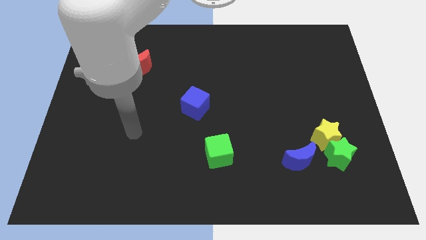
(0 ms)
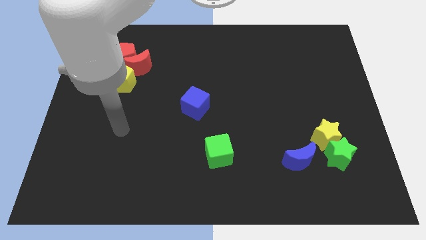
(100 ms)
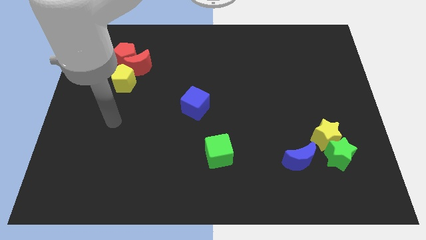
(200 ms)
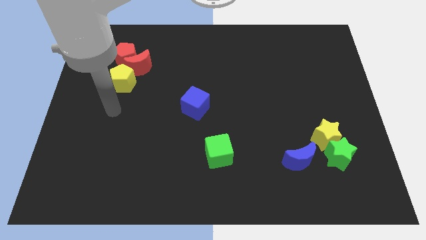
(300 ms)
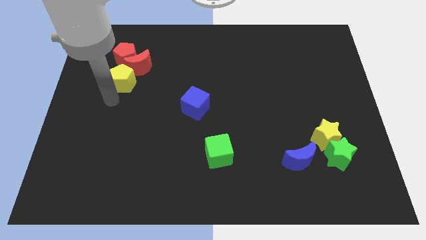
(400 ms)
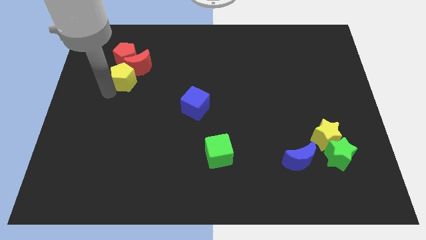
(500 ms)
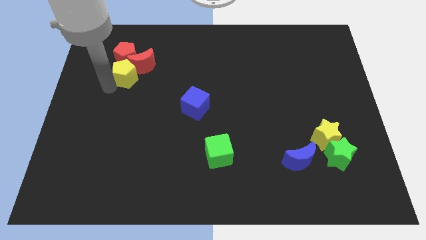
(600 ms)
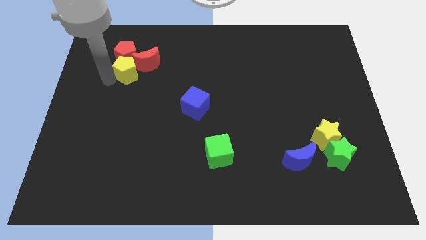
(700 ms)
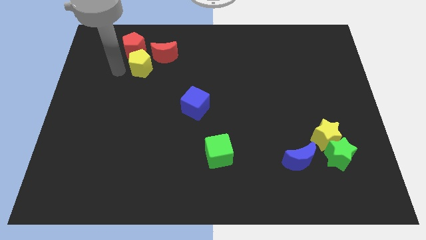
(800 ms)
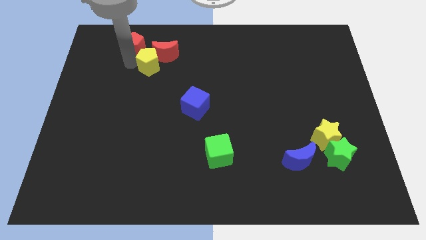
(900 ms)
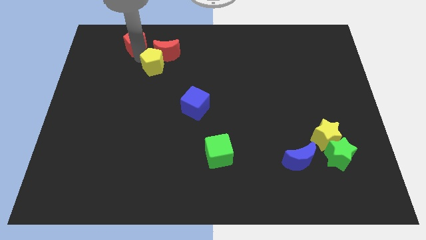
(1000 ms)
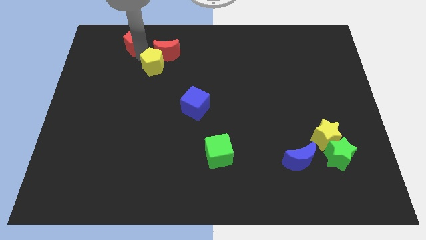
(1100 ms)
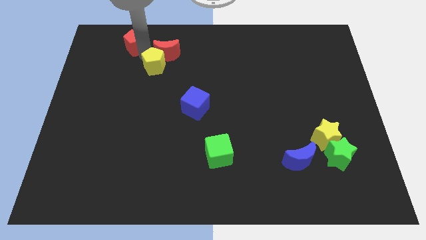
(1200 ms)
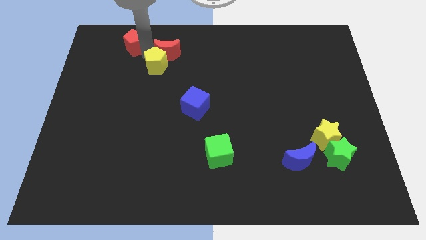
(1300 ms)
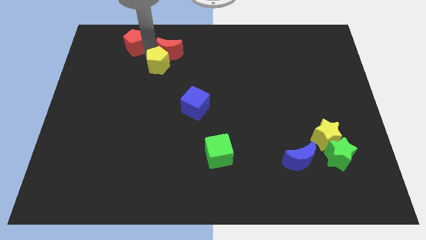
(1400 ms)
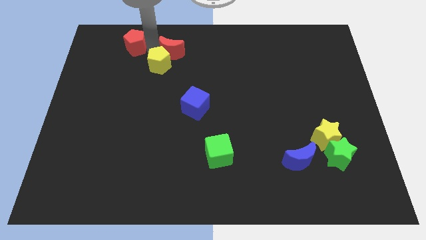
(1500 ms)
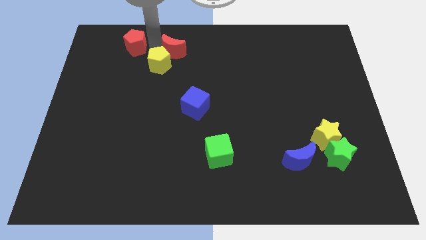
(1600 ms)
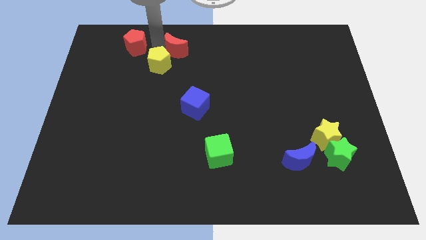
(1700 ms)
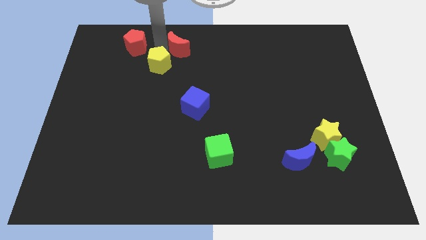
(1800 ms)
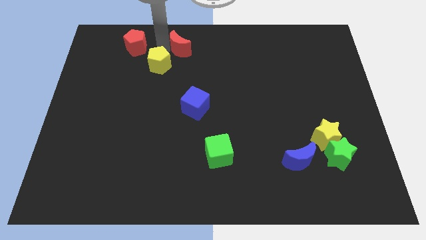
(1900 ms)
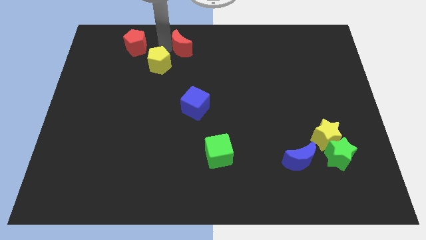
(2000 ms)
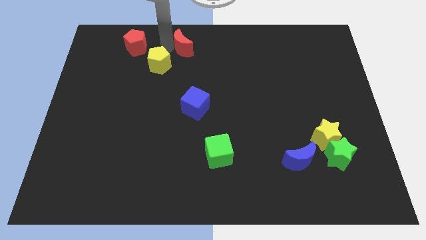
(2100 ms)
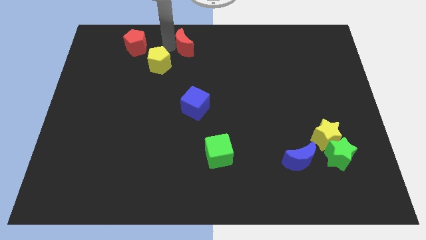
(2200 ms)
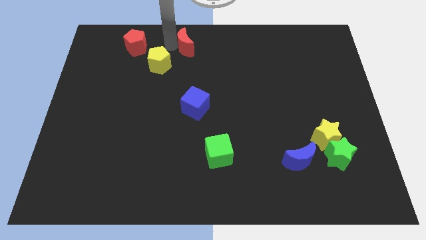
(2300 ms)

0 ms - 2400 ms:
pull the red moon apart from the red pentagon and yellow pentagon

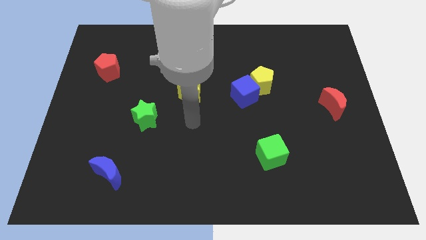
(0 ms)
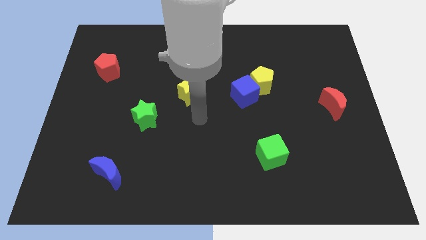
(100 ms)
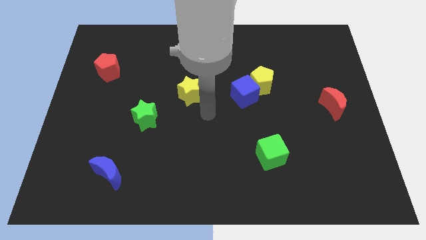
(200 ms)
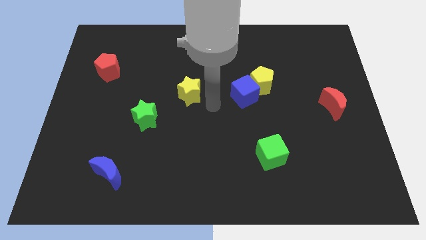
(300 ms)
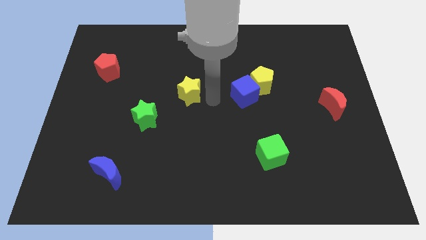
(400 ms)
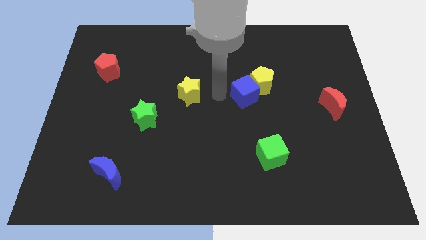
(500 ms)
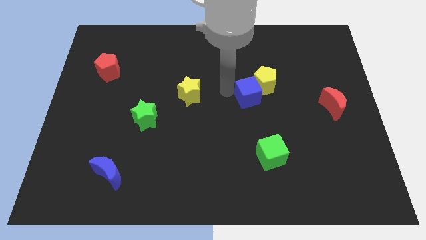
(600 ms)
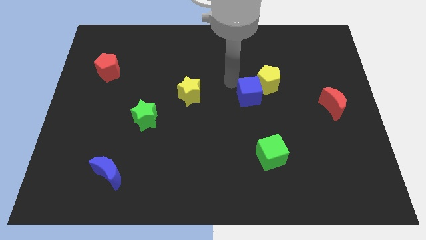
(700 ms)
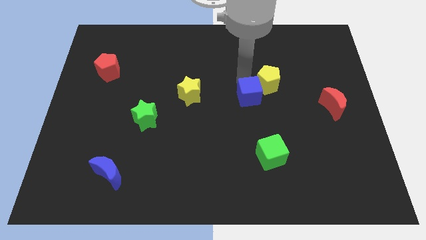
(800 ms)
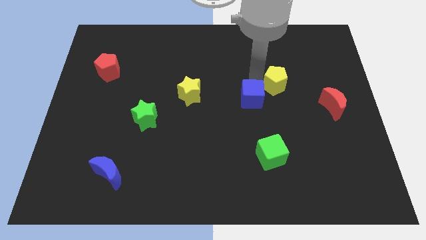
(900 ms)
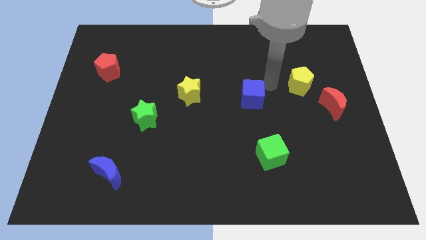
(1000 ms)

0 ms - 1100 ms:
pull the blue cube apart from the yellow pentagon

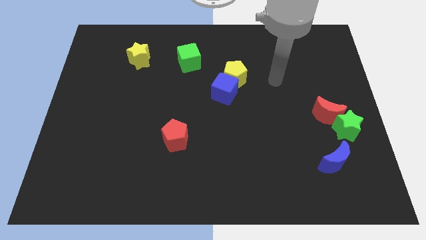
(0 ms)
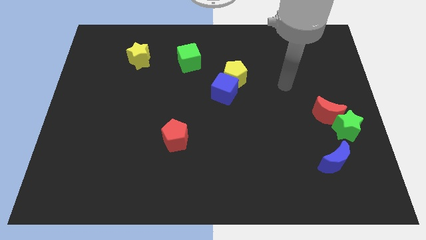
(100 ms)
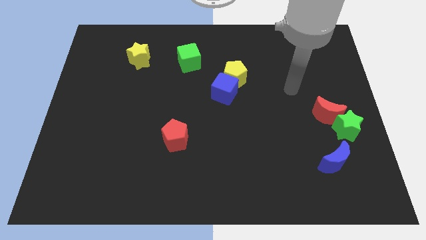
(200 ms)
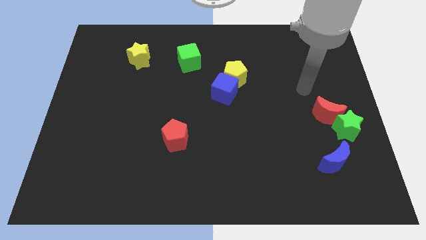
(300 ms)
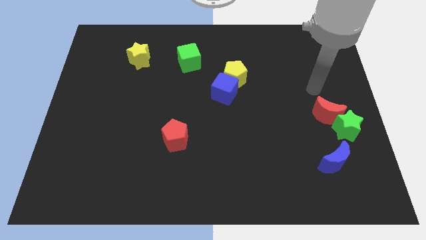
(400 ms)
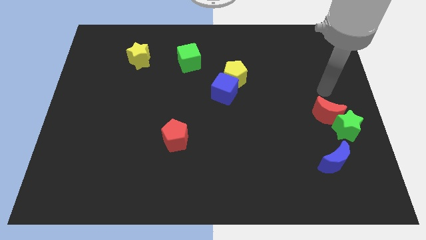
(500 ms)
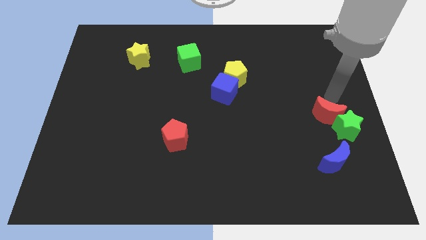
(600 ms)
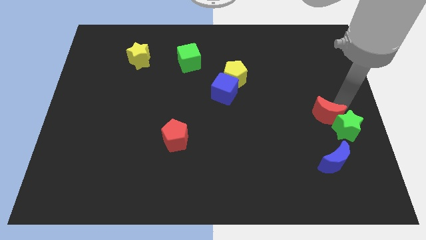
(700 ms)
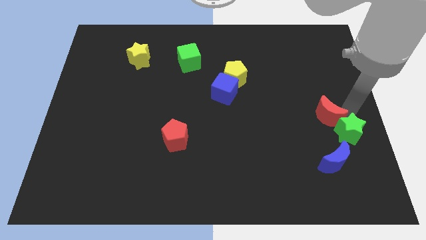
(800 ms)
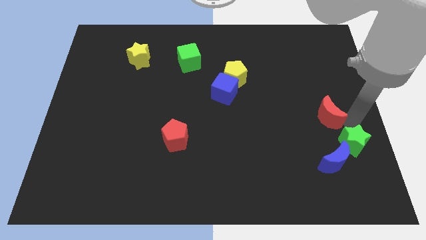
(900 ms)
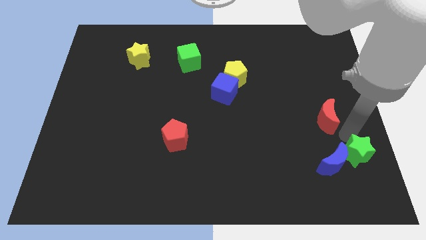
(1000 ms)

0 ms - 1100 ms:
move the red moon away from the green star

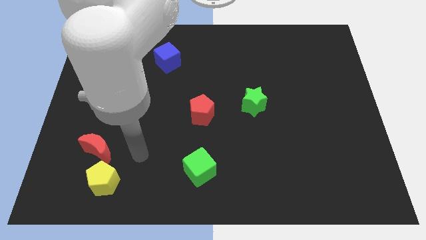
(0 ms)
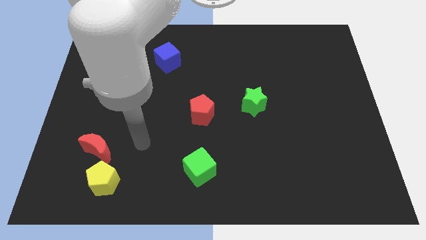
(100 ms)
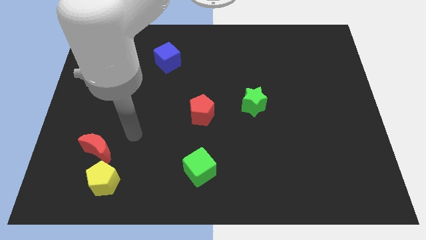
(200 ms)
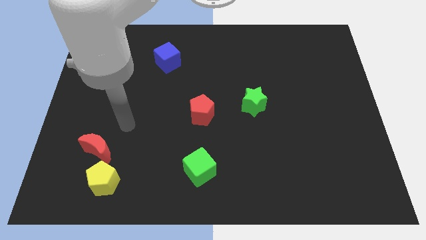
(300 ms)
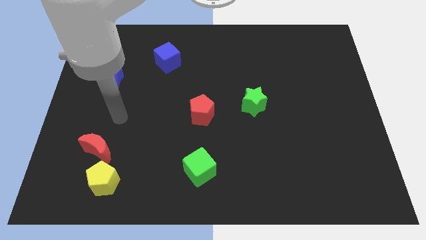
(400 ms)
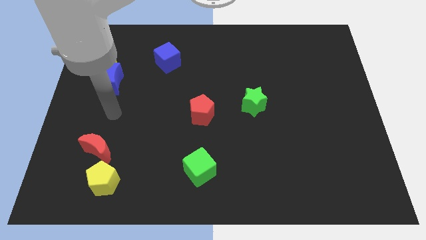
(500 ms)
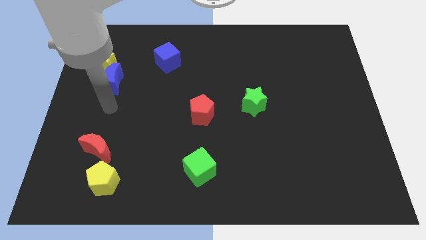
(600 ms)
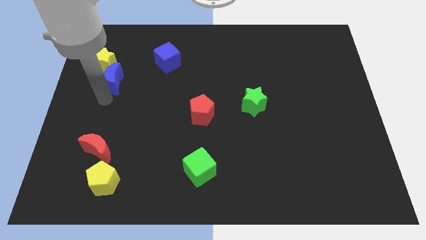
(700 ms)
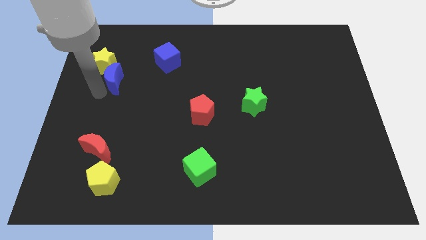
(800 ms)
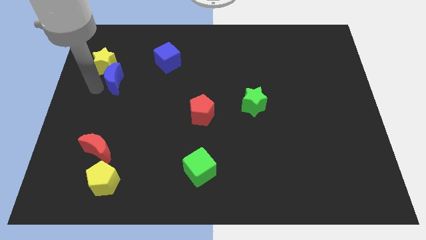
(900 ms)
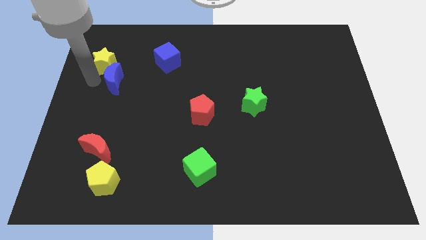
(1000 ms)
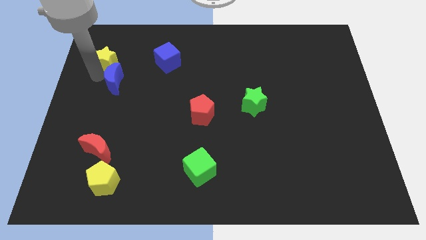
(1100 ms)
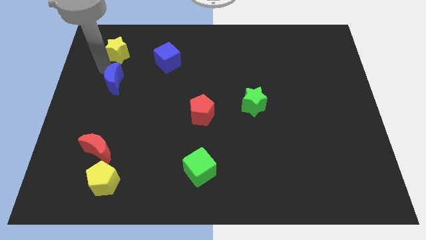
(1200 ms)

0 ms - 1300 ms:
pull the blue moon apart from the yellow star

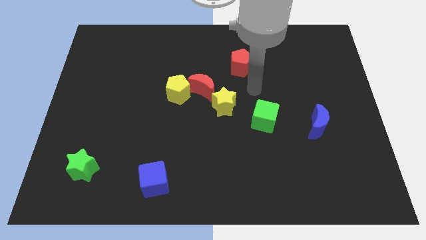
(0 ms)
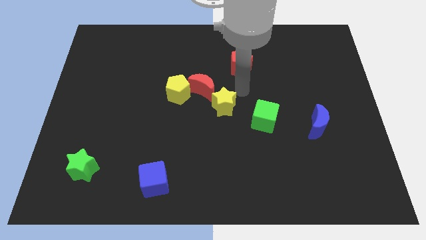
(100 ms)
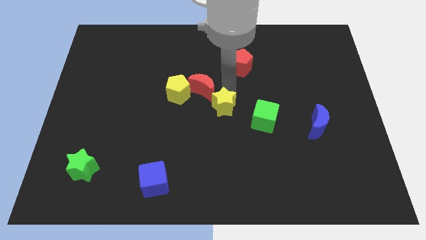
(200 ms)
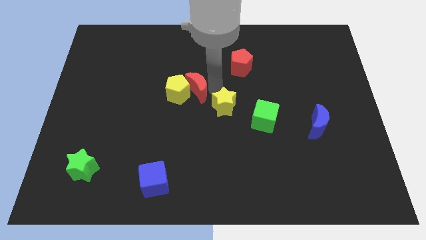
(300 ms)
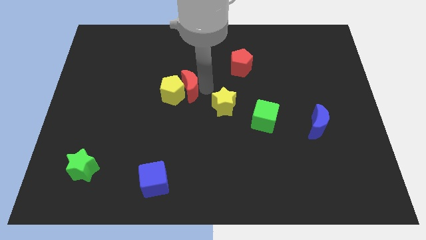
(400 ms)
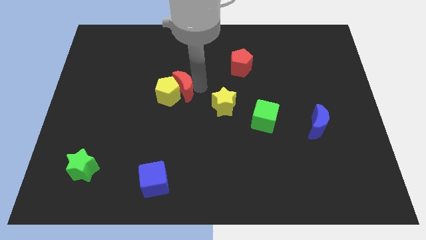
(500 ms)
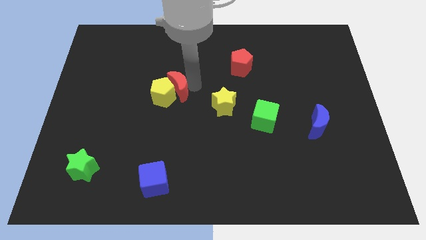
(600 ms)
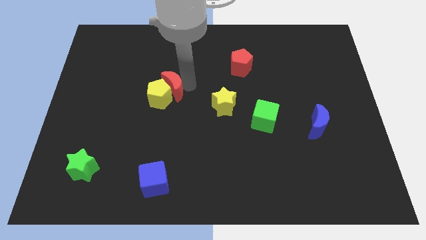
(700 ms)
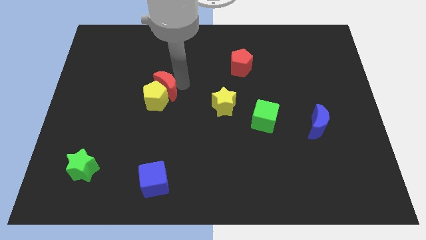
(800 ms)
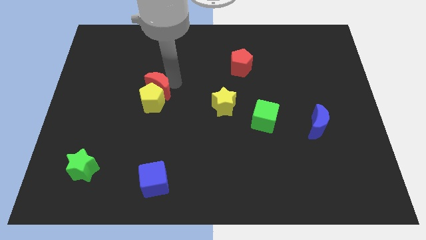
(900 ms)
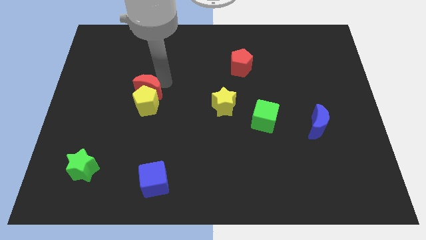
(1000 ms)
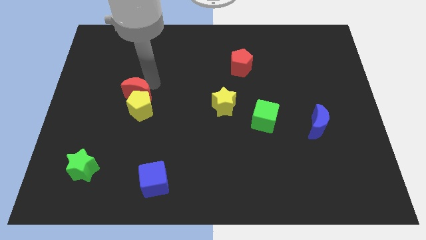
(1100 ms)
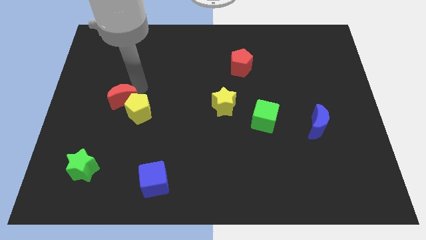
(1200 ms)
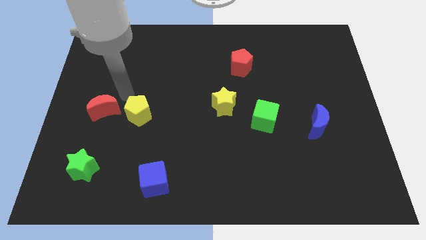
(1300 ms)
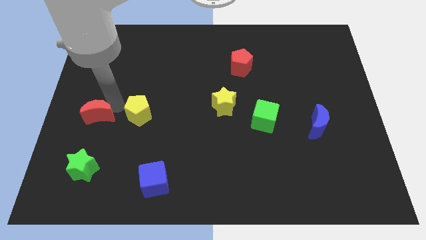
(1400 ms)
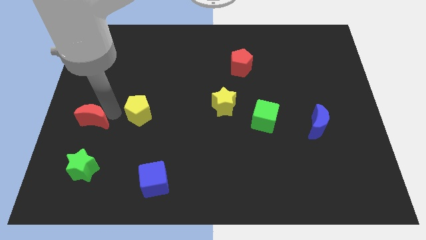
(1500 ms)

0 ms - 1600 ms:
move the yellow pentagon away from the red moon

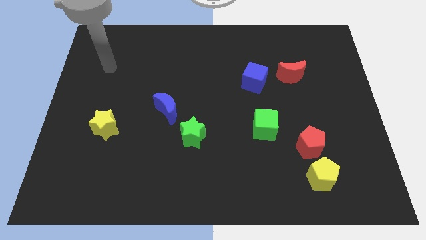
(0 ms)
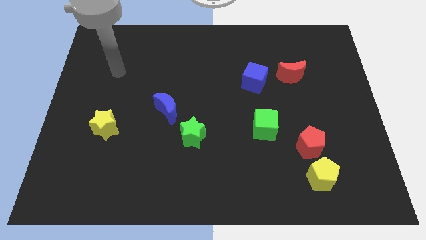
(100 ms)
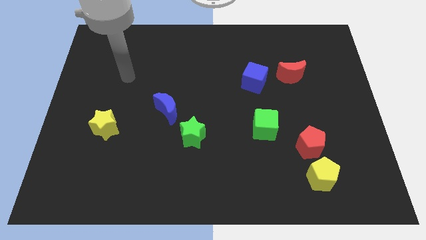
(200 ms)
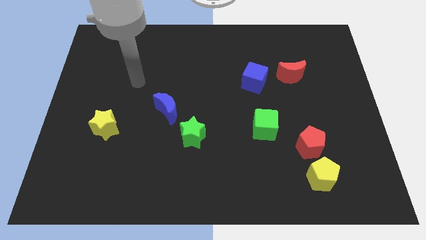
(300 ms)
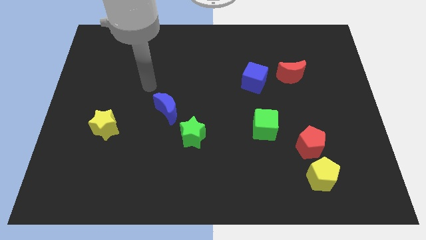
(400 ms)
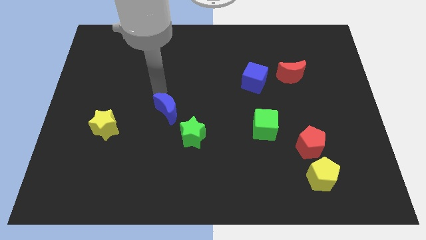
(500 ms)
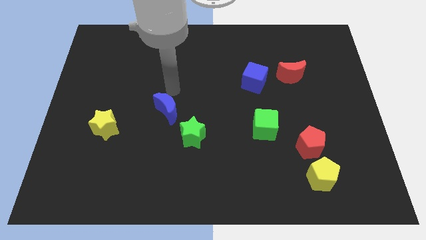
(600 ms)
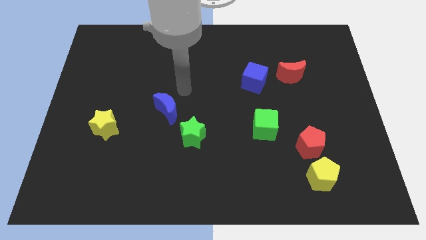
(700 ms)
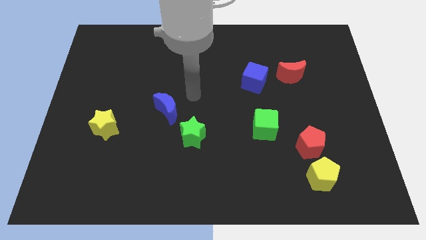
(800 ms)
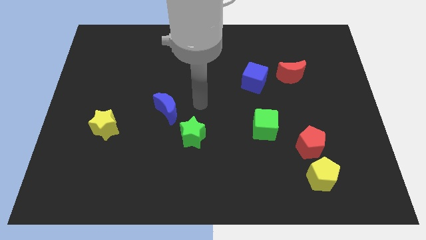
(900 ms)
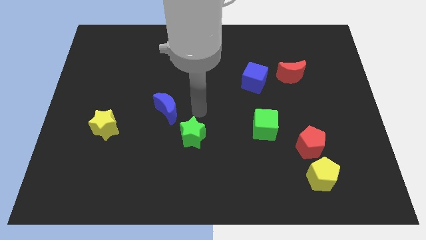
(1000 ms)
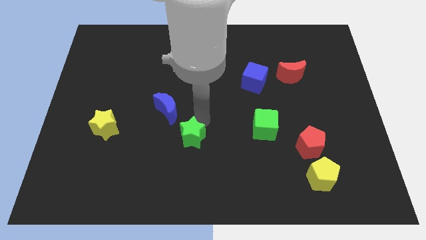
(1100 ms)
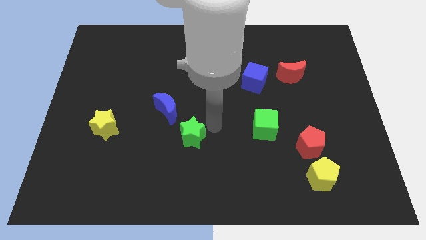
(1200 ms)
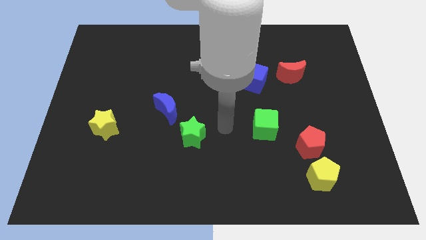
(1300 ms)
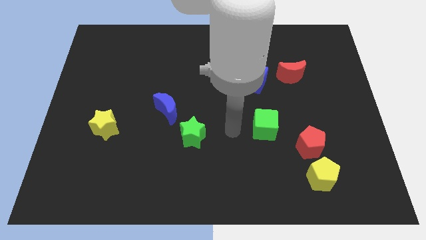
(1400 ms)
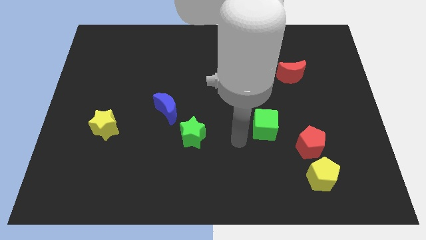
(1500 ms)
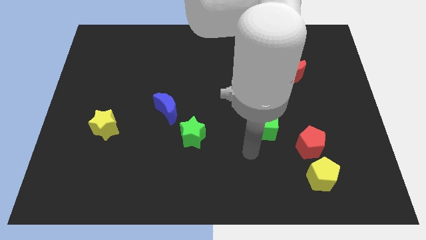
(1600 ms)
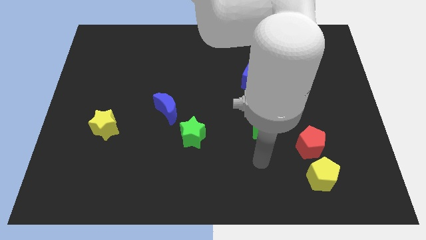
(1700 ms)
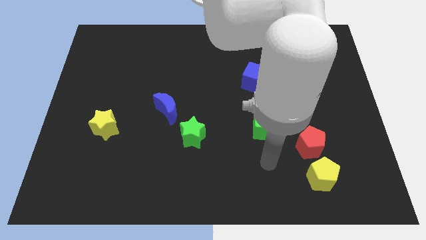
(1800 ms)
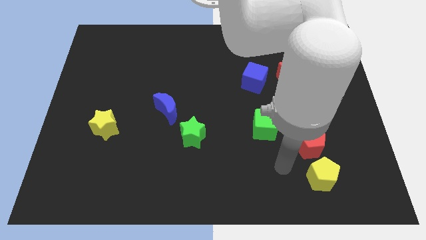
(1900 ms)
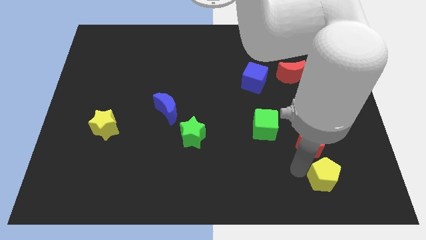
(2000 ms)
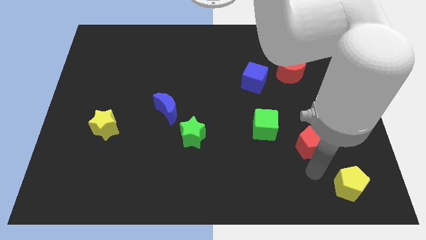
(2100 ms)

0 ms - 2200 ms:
move the red pentagon away from the yellow pentagon
